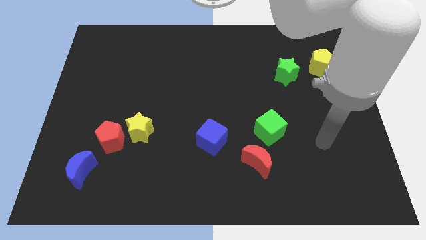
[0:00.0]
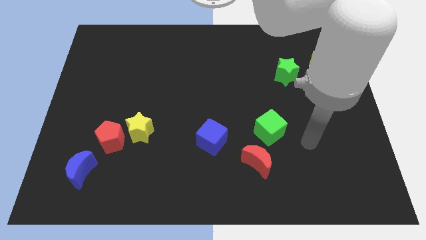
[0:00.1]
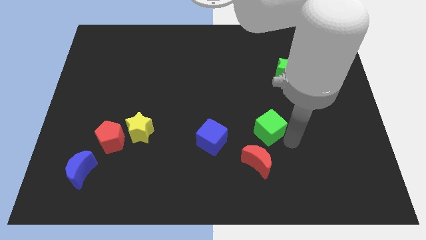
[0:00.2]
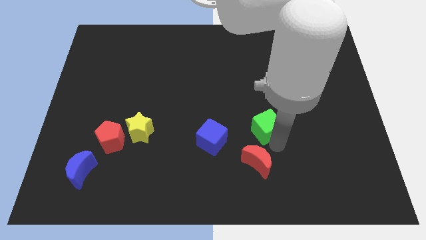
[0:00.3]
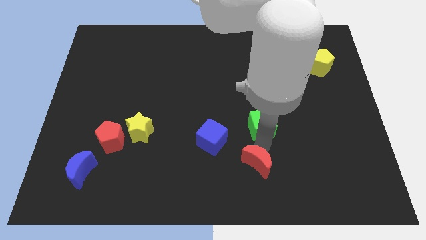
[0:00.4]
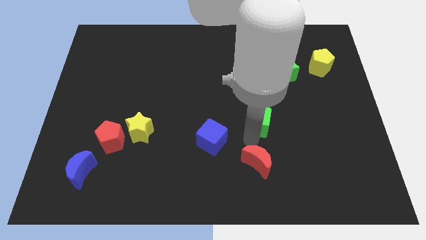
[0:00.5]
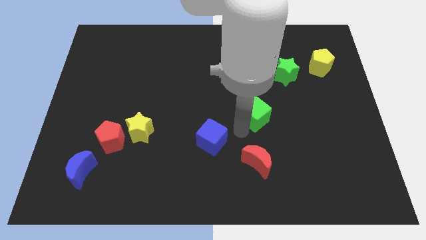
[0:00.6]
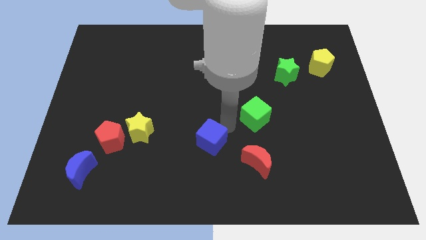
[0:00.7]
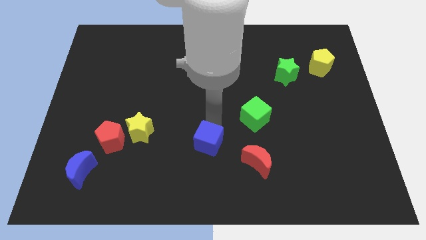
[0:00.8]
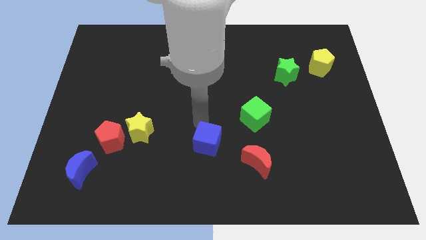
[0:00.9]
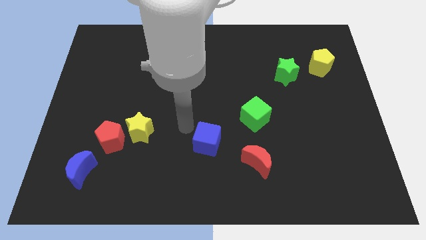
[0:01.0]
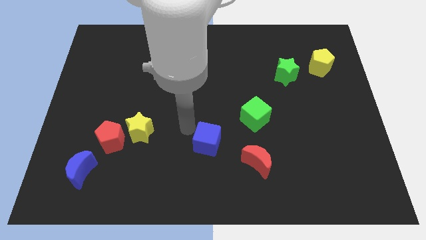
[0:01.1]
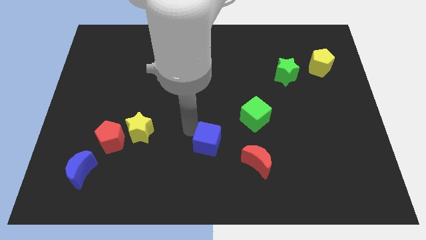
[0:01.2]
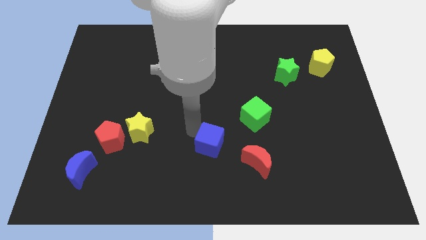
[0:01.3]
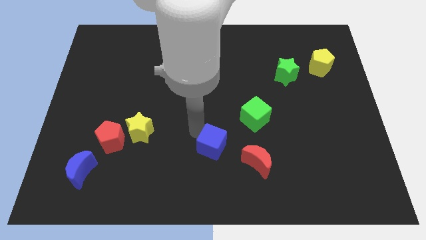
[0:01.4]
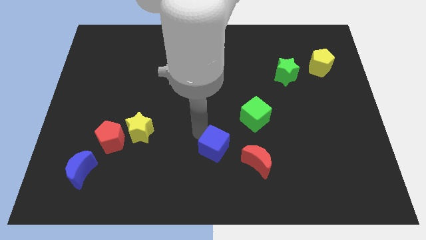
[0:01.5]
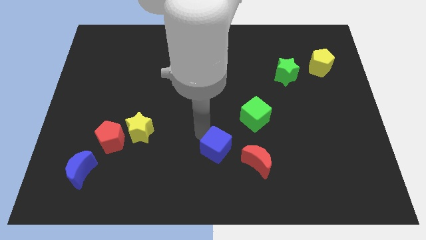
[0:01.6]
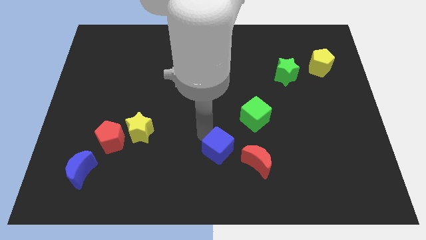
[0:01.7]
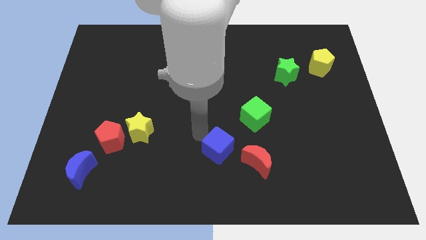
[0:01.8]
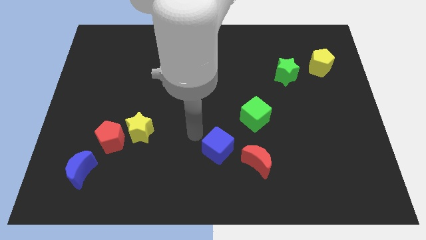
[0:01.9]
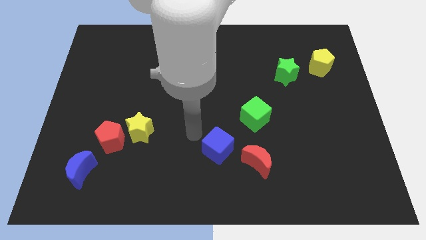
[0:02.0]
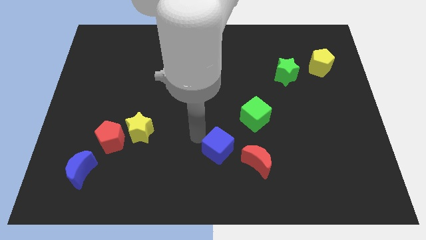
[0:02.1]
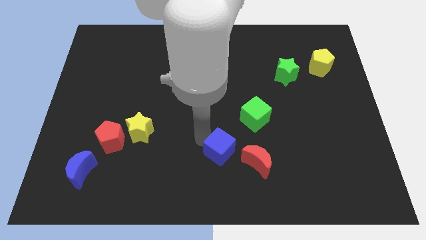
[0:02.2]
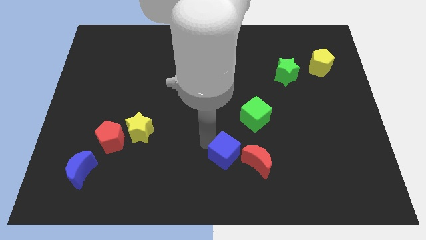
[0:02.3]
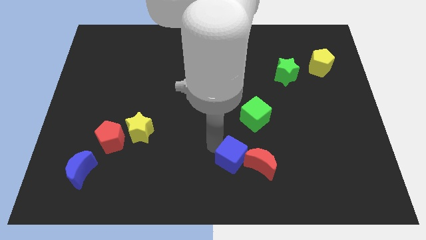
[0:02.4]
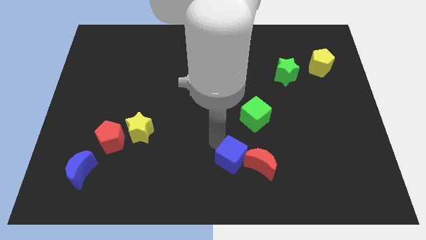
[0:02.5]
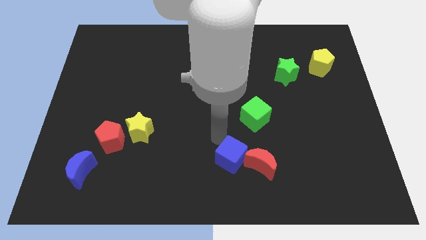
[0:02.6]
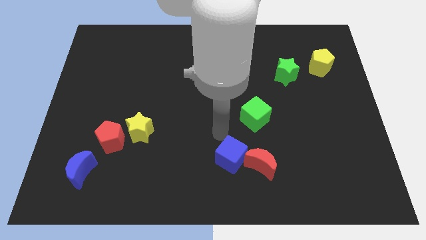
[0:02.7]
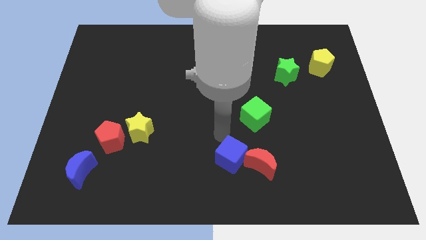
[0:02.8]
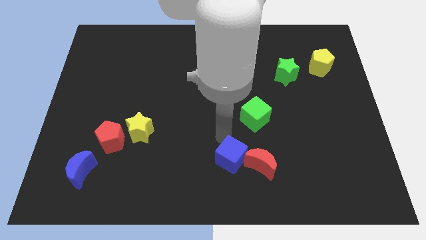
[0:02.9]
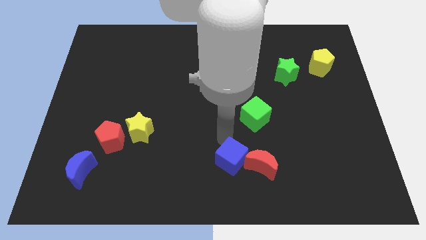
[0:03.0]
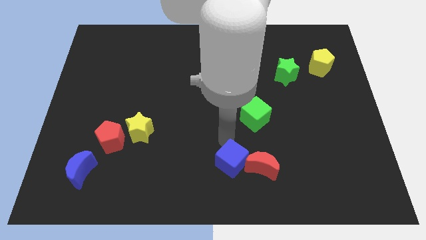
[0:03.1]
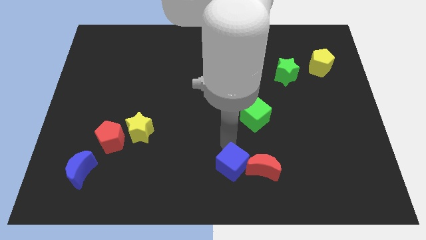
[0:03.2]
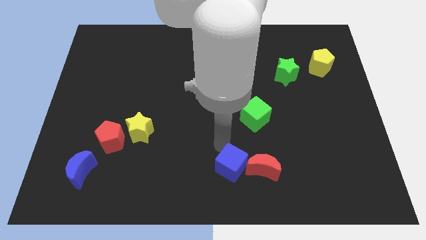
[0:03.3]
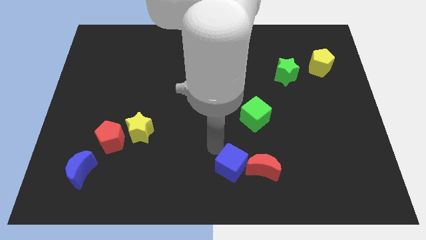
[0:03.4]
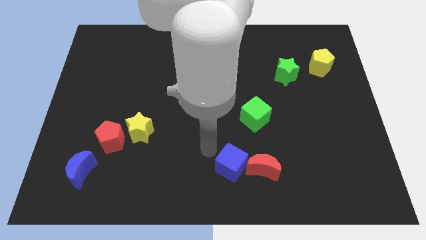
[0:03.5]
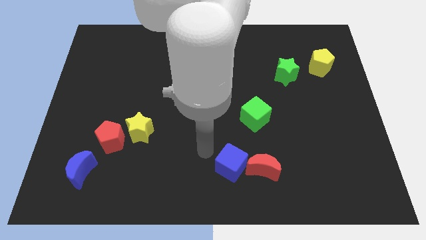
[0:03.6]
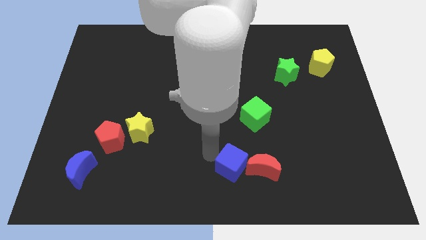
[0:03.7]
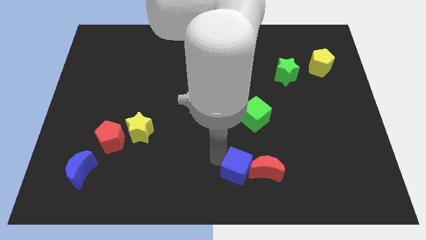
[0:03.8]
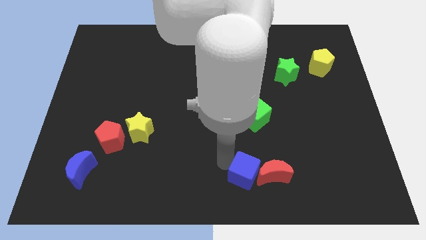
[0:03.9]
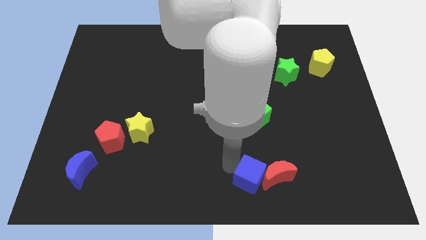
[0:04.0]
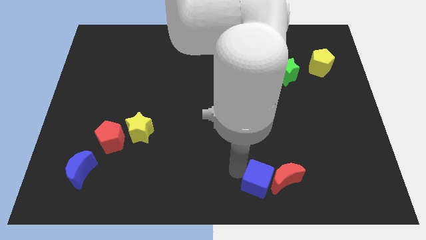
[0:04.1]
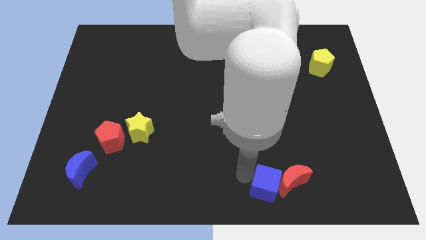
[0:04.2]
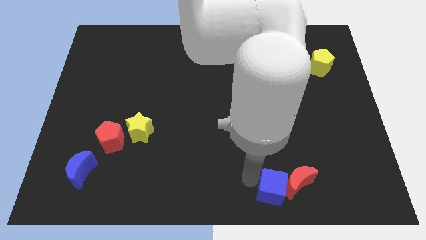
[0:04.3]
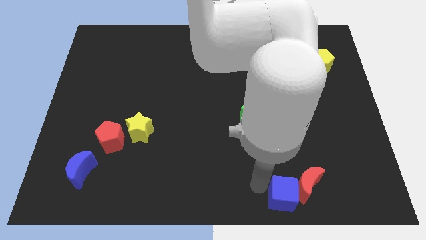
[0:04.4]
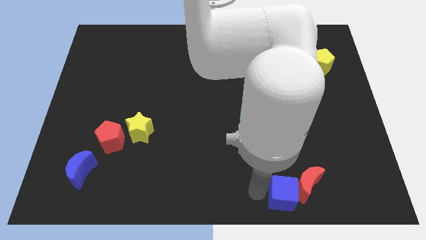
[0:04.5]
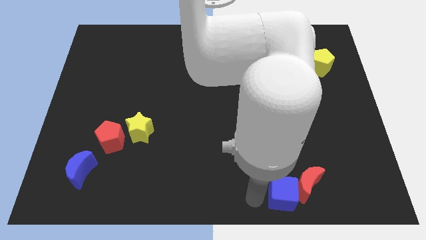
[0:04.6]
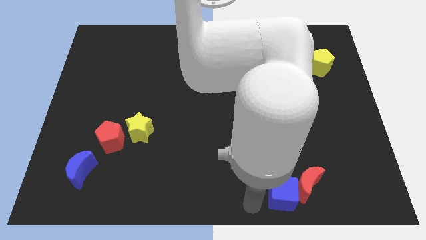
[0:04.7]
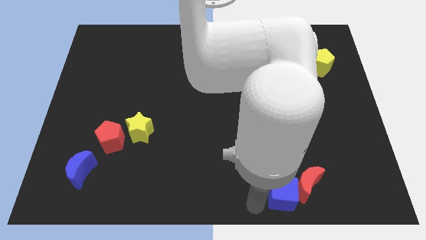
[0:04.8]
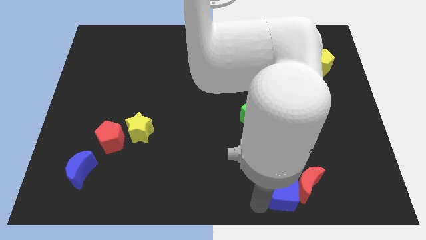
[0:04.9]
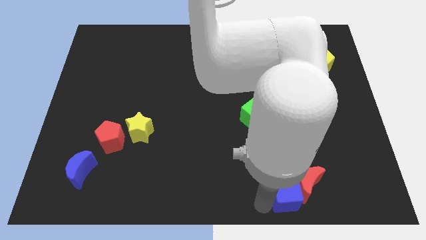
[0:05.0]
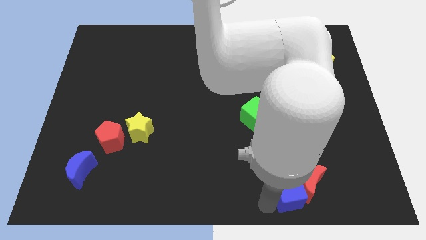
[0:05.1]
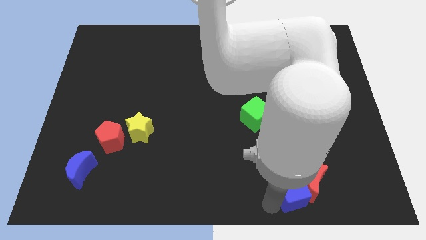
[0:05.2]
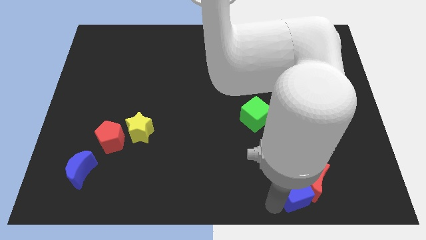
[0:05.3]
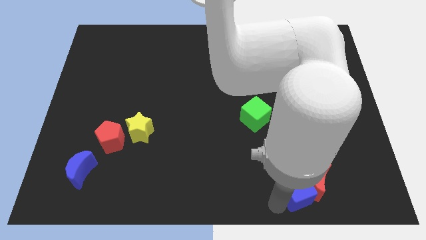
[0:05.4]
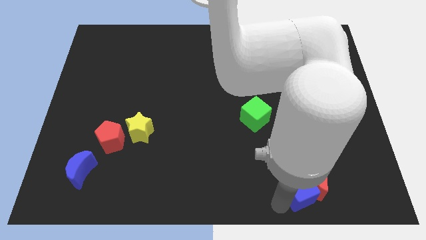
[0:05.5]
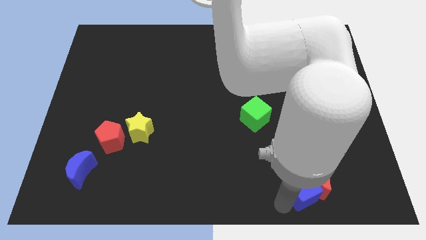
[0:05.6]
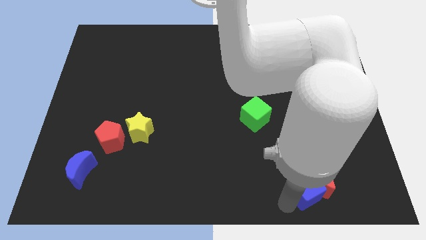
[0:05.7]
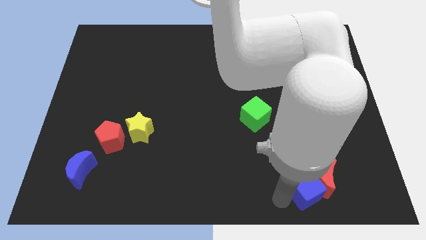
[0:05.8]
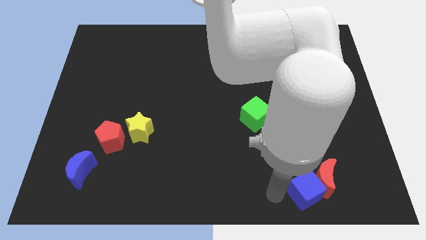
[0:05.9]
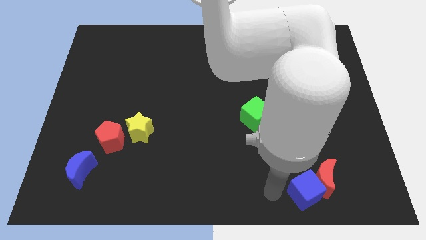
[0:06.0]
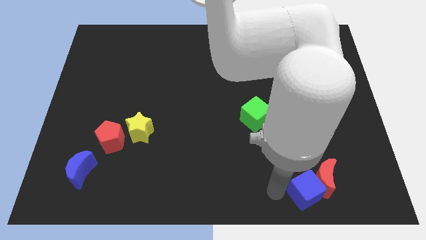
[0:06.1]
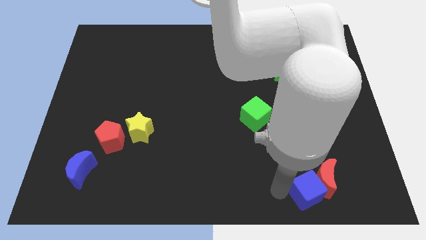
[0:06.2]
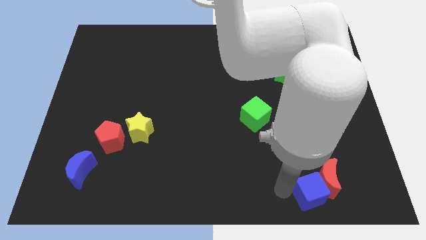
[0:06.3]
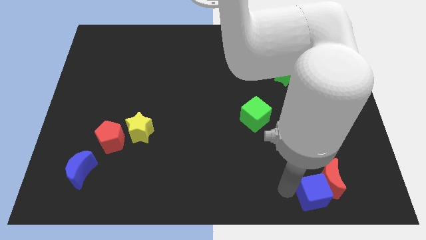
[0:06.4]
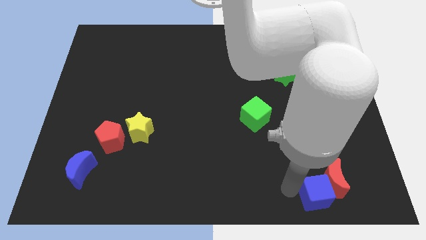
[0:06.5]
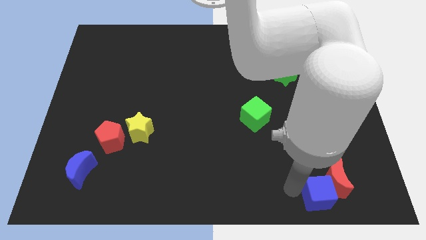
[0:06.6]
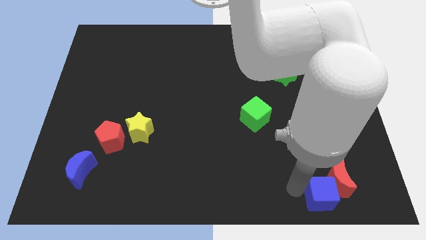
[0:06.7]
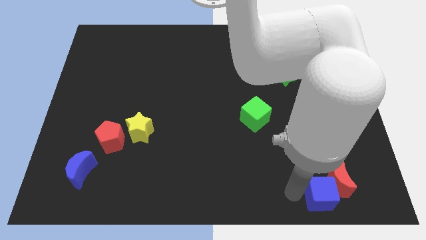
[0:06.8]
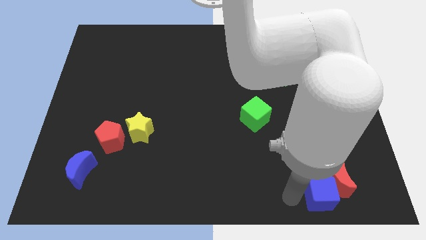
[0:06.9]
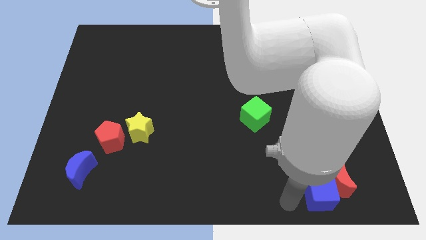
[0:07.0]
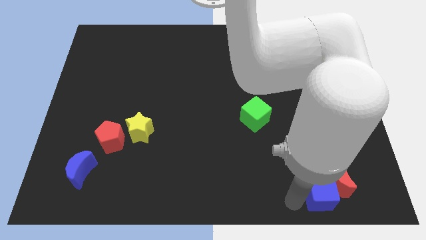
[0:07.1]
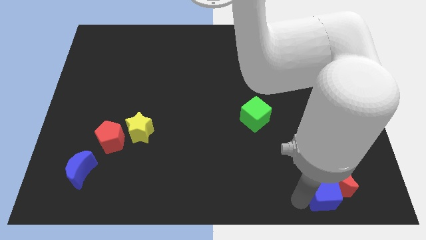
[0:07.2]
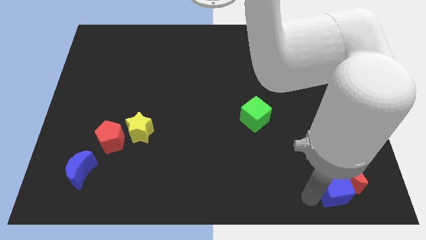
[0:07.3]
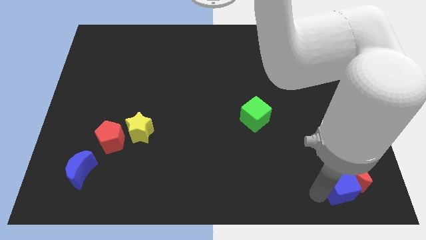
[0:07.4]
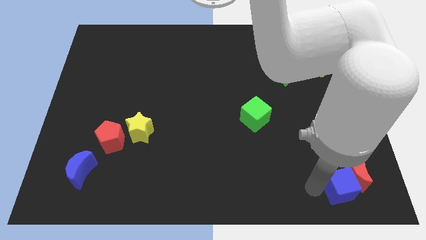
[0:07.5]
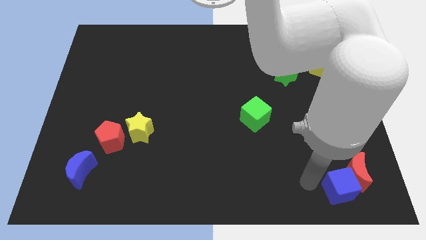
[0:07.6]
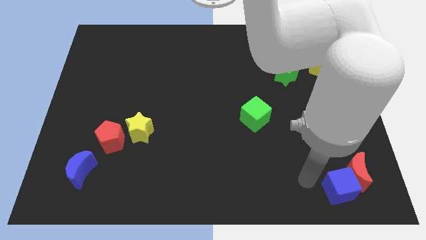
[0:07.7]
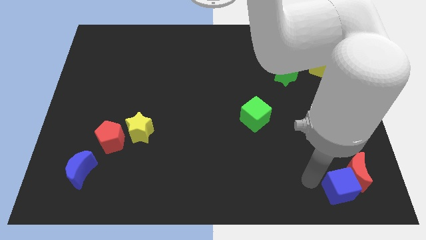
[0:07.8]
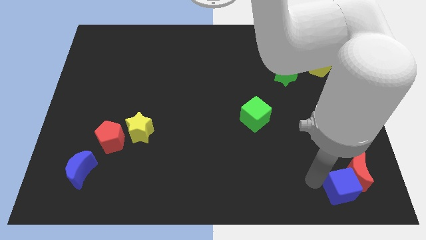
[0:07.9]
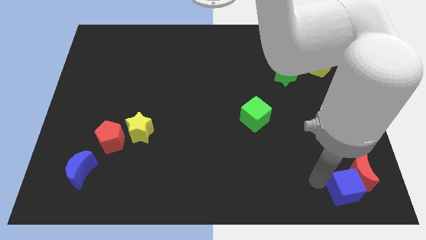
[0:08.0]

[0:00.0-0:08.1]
move the blue cube to the bottom right
